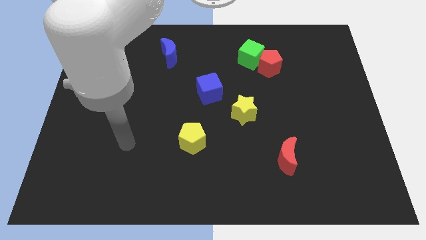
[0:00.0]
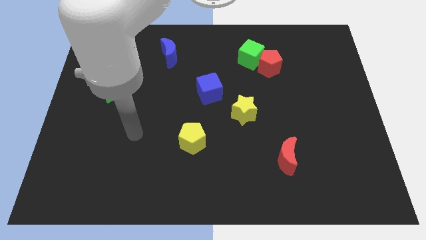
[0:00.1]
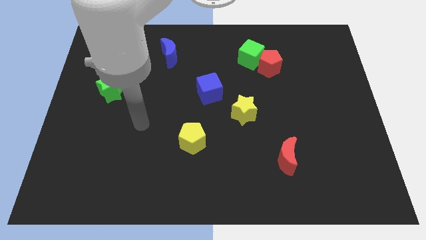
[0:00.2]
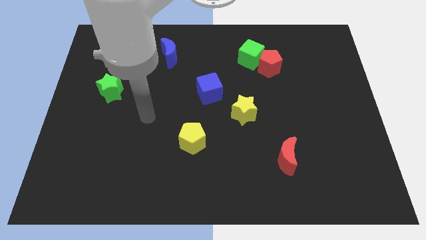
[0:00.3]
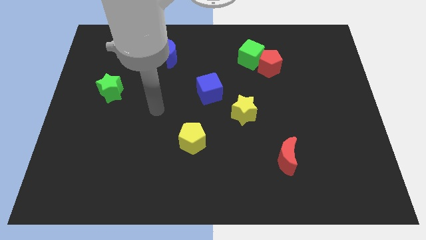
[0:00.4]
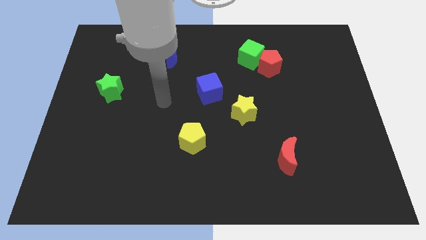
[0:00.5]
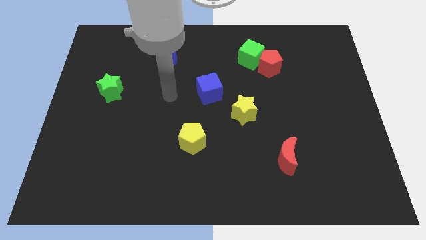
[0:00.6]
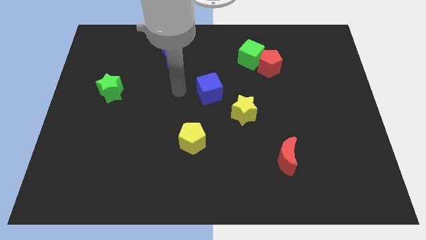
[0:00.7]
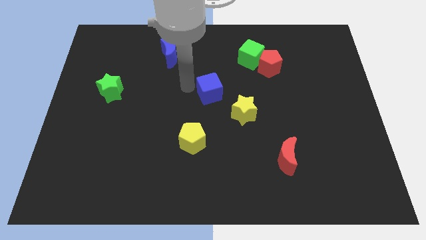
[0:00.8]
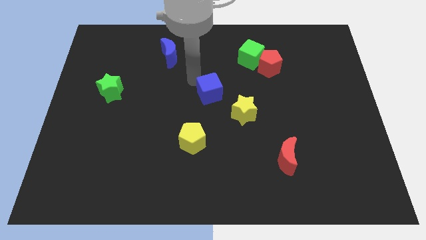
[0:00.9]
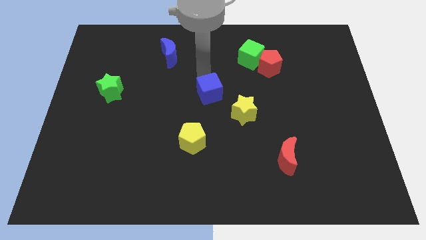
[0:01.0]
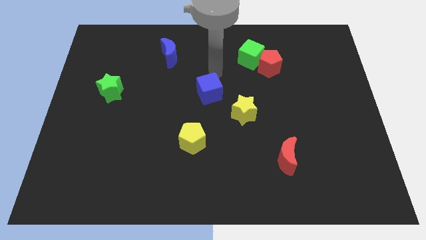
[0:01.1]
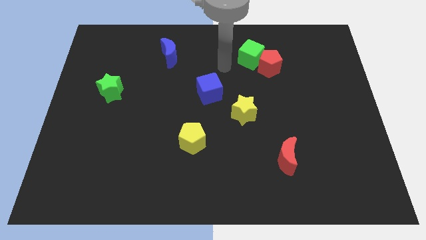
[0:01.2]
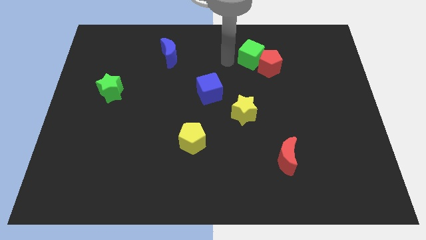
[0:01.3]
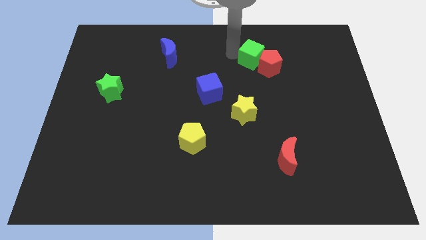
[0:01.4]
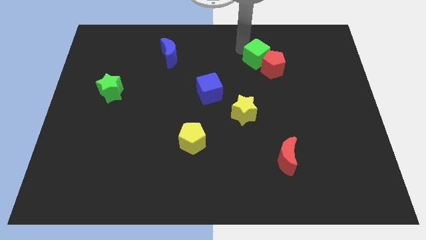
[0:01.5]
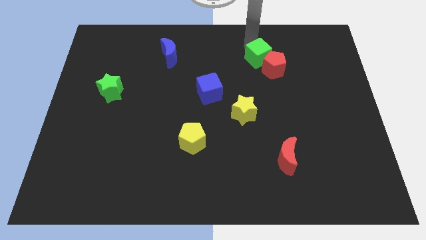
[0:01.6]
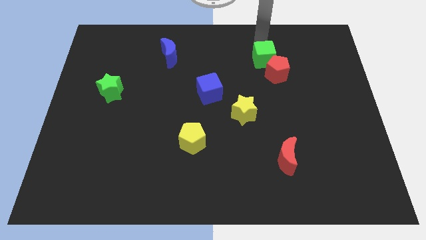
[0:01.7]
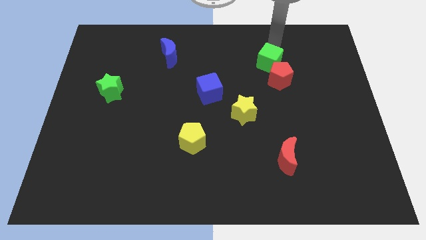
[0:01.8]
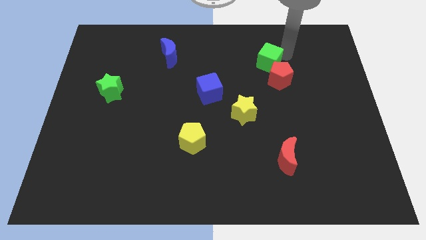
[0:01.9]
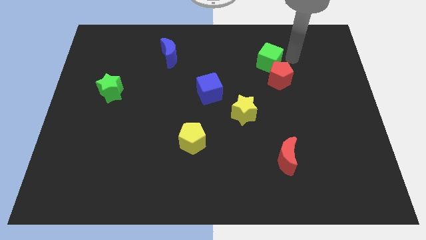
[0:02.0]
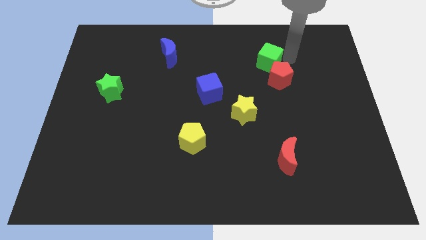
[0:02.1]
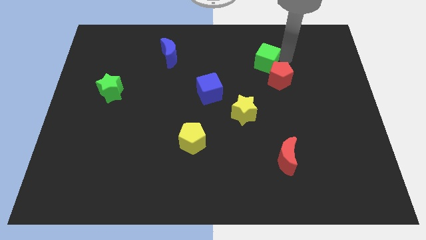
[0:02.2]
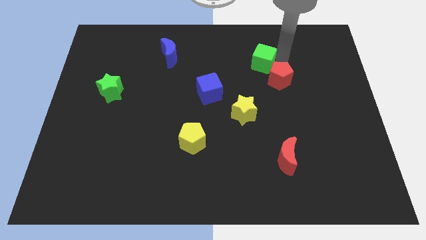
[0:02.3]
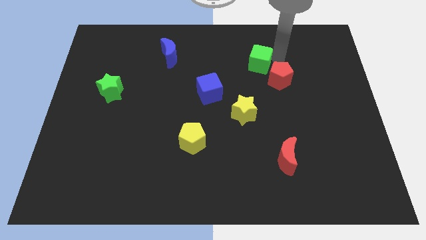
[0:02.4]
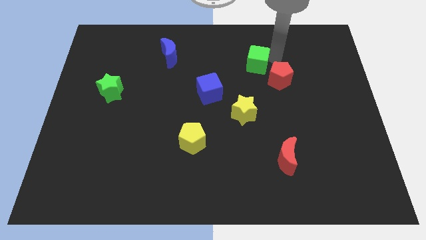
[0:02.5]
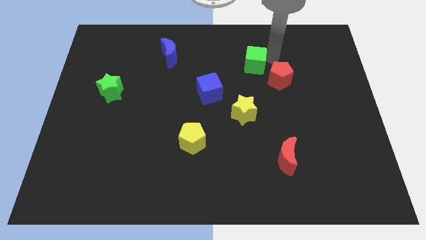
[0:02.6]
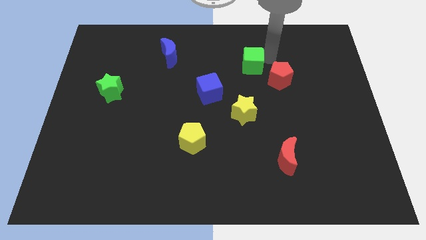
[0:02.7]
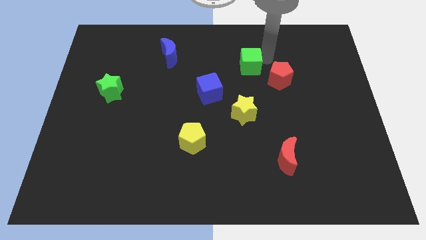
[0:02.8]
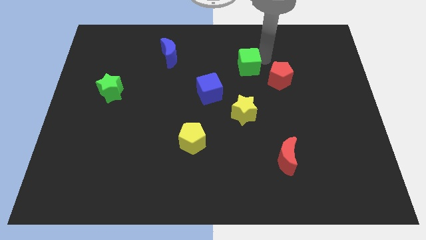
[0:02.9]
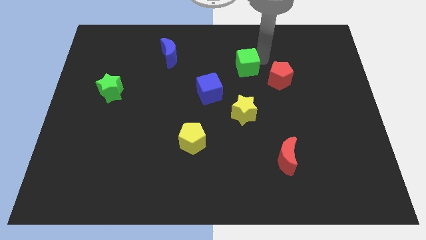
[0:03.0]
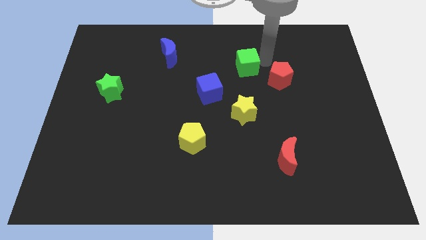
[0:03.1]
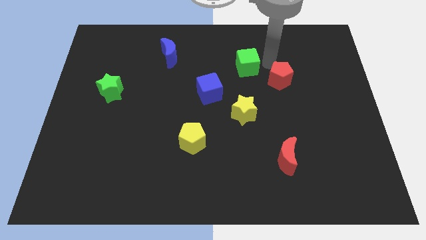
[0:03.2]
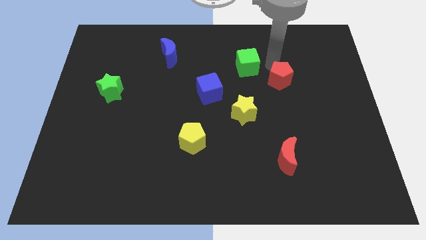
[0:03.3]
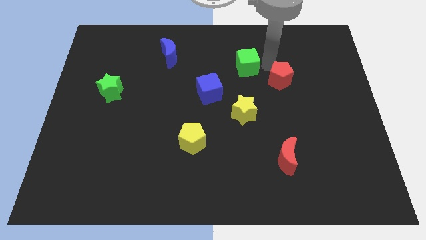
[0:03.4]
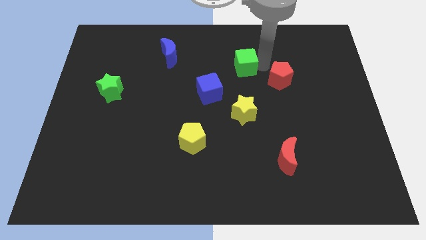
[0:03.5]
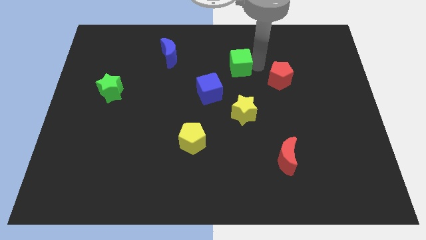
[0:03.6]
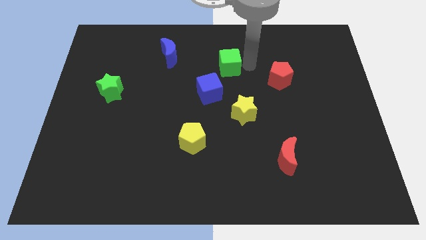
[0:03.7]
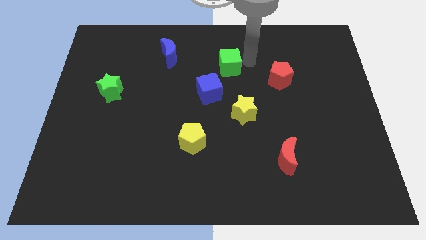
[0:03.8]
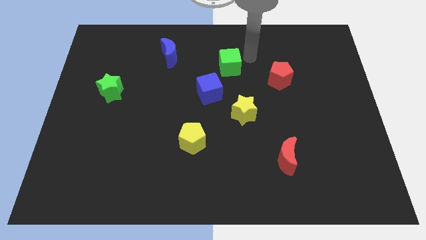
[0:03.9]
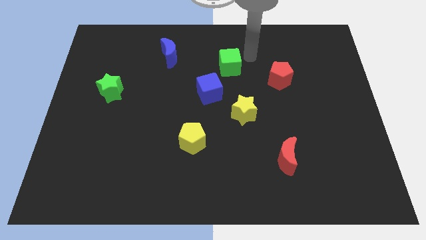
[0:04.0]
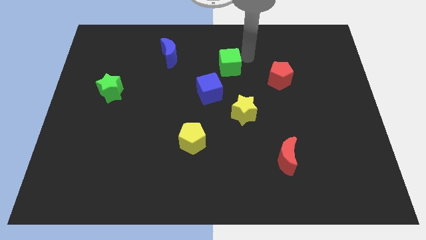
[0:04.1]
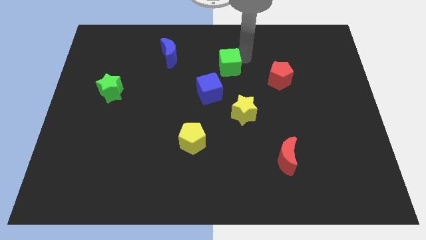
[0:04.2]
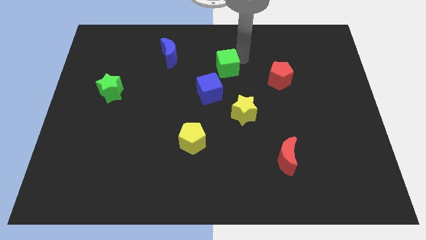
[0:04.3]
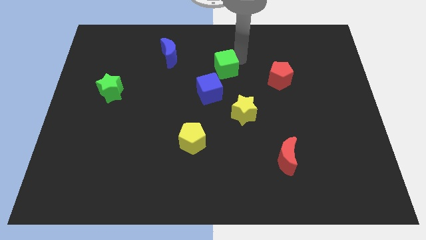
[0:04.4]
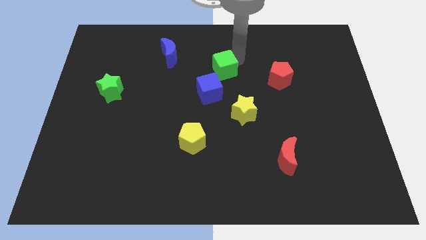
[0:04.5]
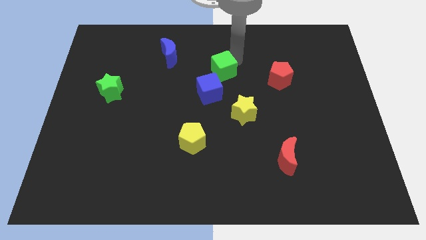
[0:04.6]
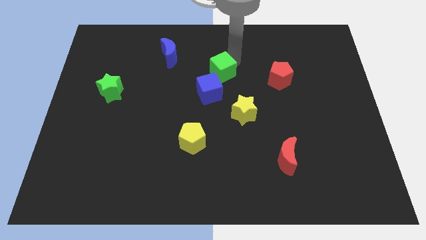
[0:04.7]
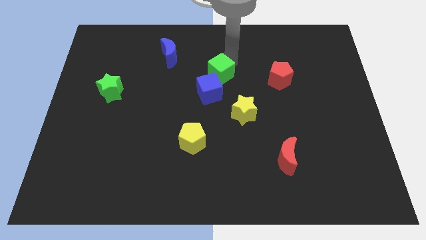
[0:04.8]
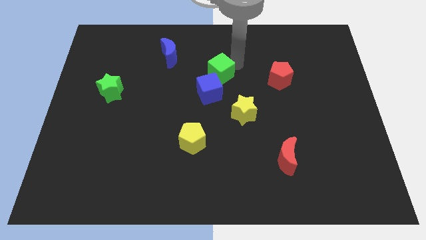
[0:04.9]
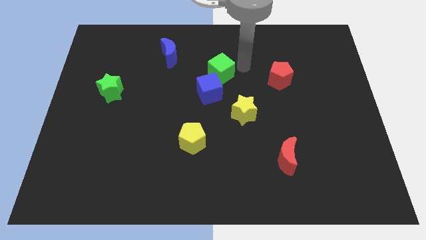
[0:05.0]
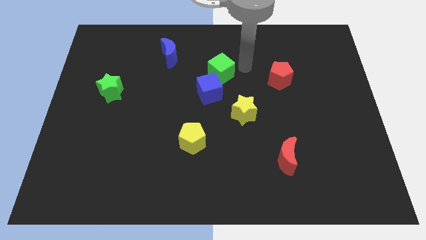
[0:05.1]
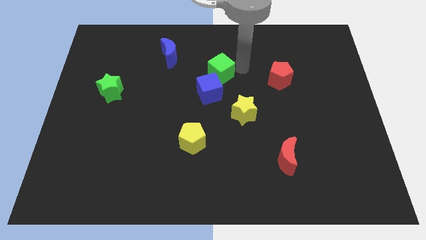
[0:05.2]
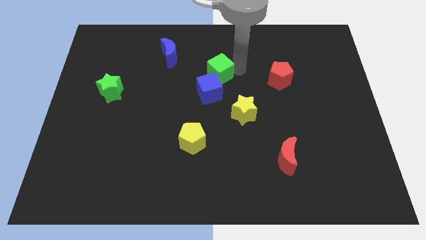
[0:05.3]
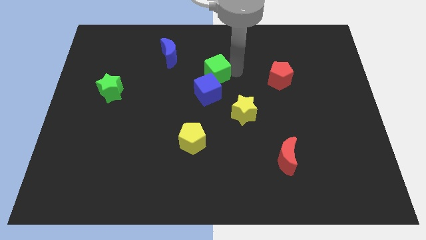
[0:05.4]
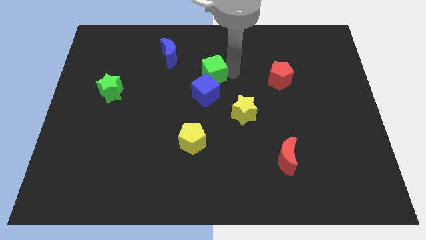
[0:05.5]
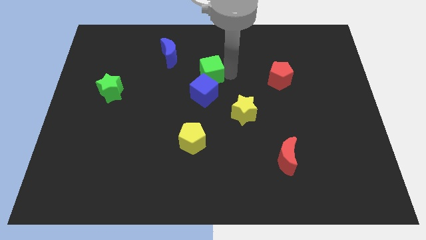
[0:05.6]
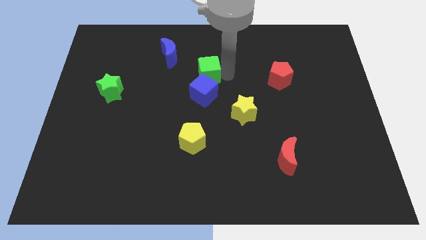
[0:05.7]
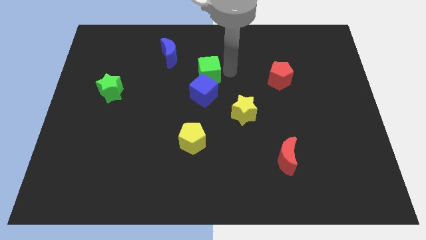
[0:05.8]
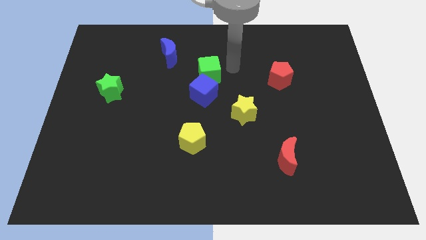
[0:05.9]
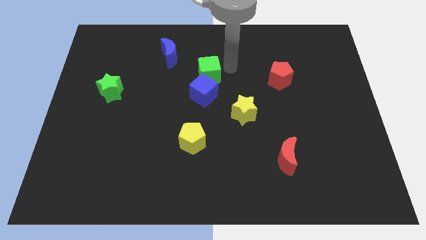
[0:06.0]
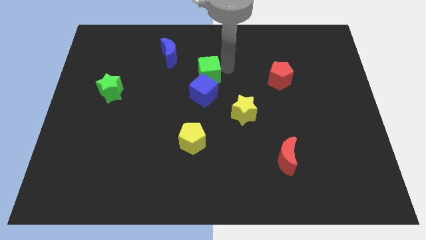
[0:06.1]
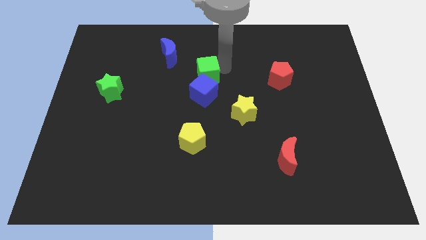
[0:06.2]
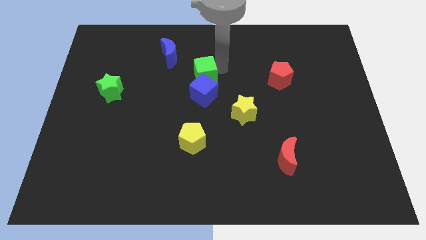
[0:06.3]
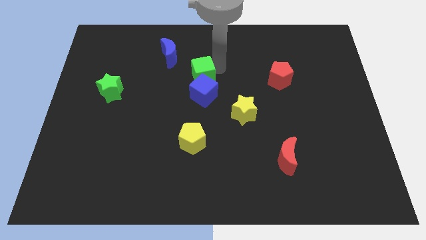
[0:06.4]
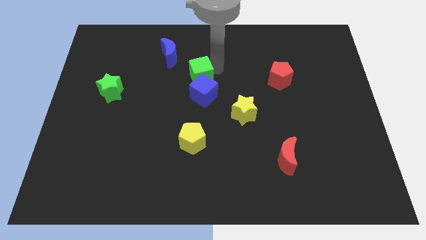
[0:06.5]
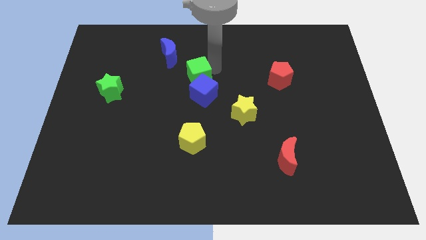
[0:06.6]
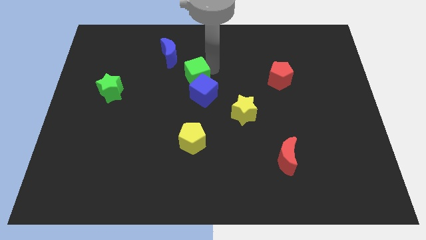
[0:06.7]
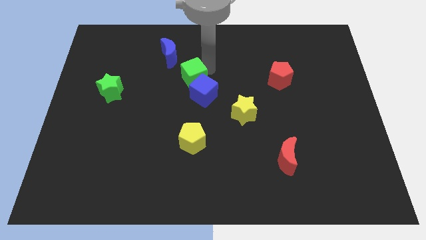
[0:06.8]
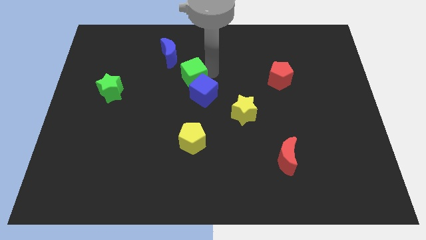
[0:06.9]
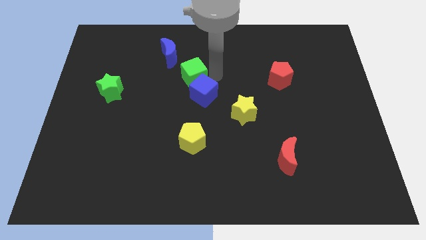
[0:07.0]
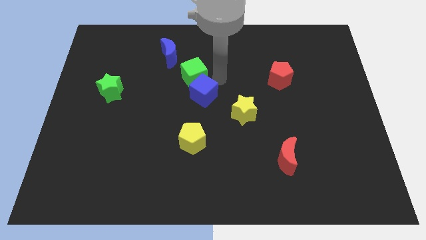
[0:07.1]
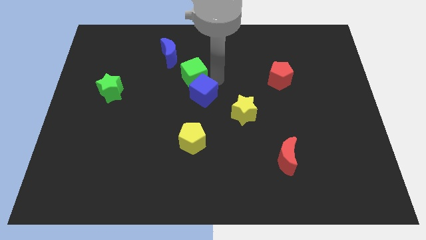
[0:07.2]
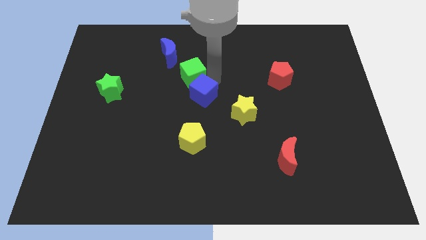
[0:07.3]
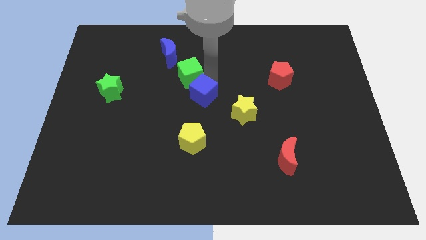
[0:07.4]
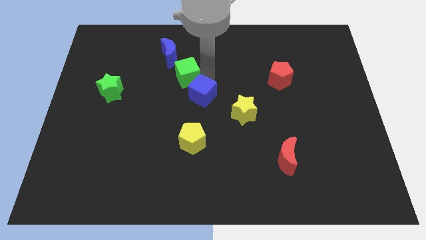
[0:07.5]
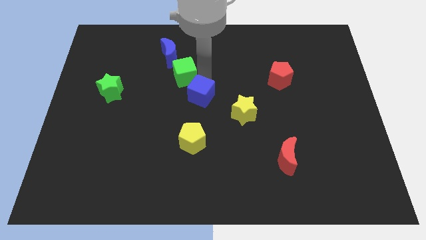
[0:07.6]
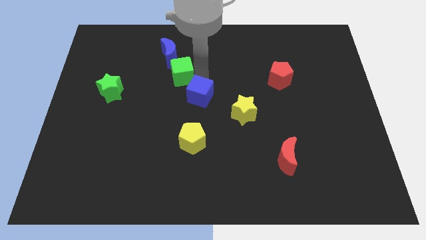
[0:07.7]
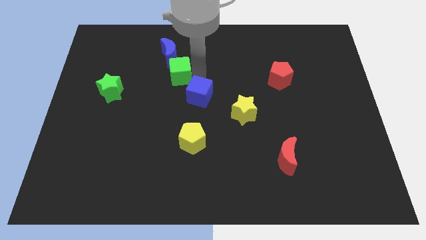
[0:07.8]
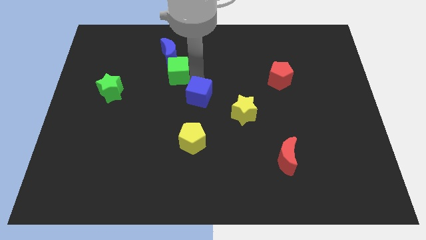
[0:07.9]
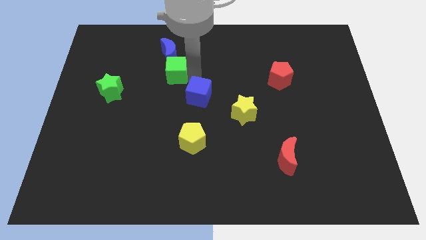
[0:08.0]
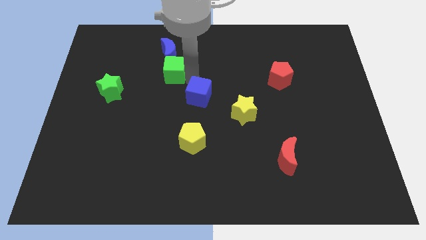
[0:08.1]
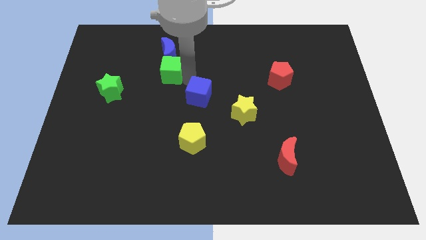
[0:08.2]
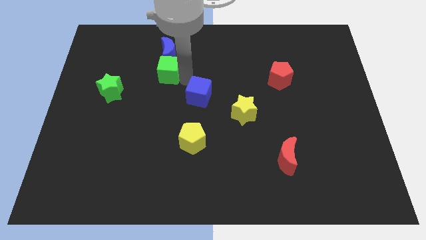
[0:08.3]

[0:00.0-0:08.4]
push the green cube to the bottom left side of the blue moon
